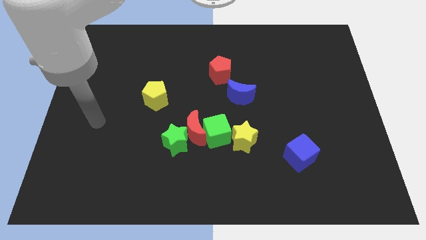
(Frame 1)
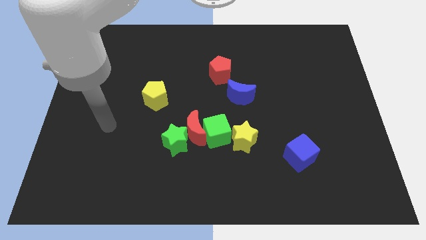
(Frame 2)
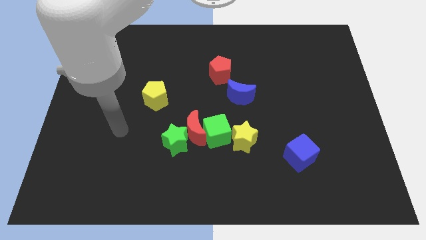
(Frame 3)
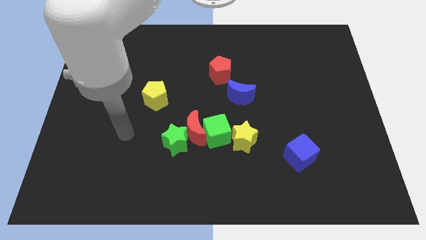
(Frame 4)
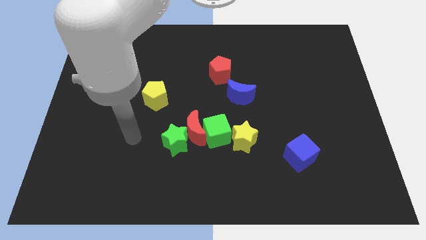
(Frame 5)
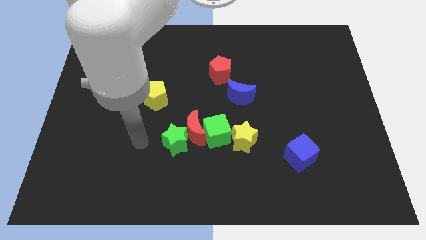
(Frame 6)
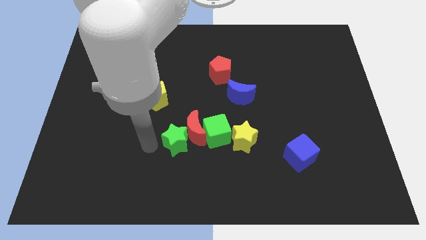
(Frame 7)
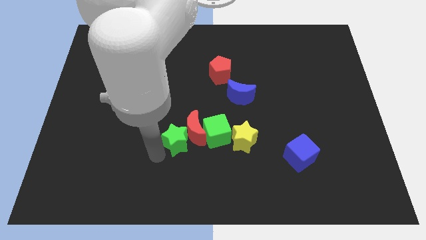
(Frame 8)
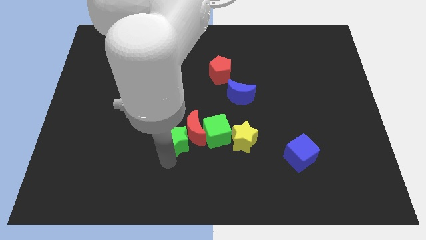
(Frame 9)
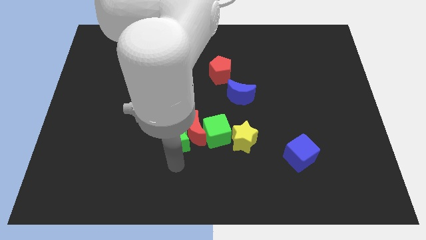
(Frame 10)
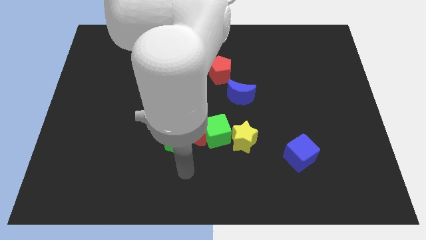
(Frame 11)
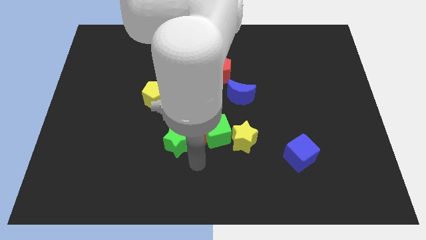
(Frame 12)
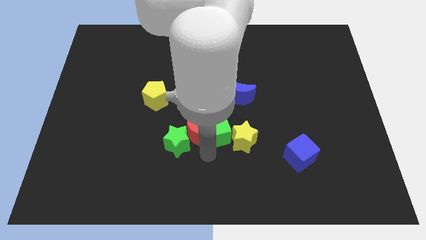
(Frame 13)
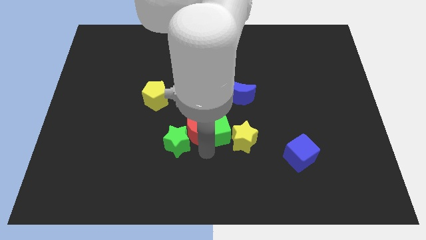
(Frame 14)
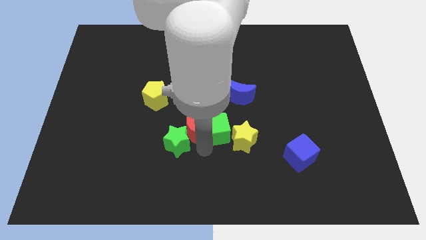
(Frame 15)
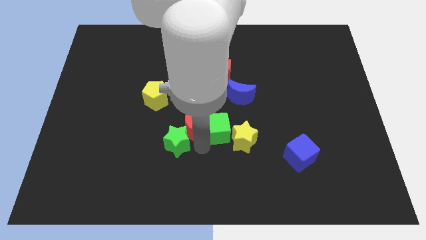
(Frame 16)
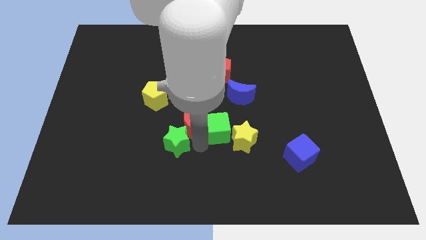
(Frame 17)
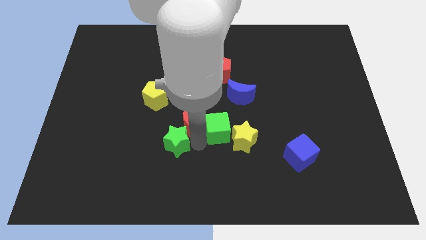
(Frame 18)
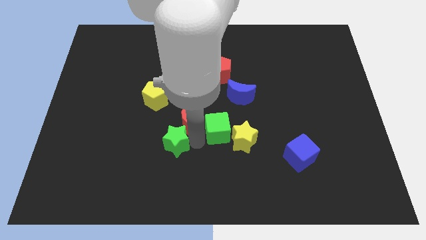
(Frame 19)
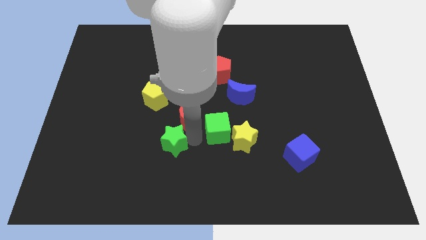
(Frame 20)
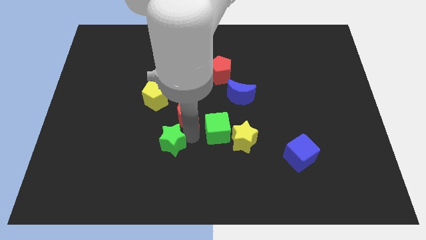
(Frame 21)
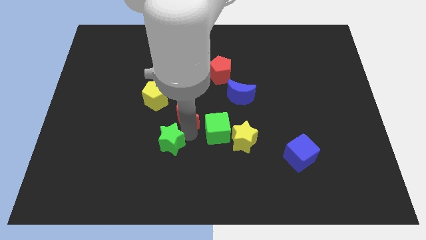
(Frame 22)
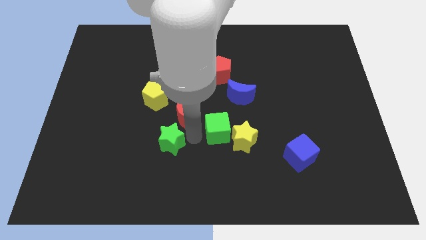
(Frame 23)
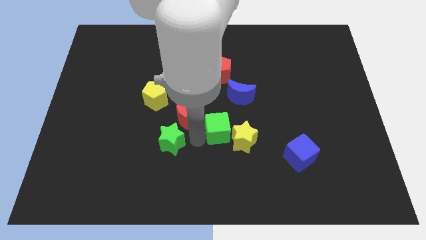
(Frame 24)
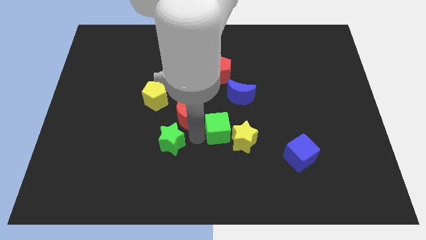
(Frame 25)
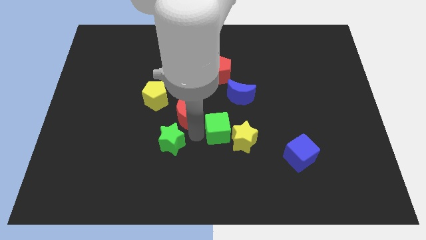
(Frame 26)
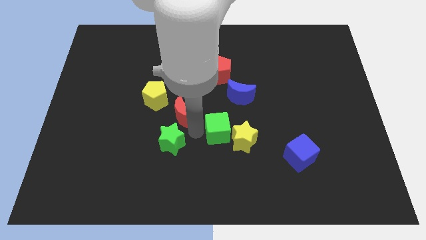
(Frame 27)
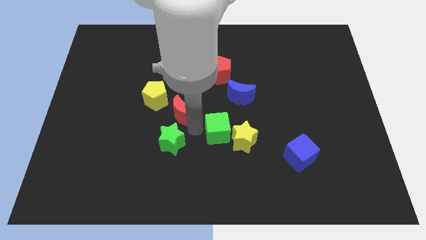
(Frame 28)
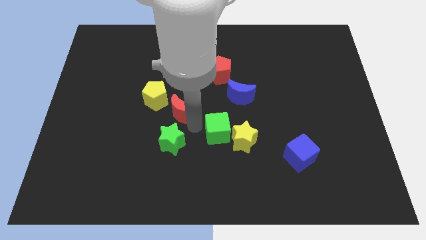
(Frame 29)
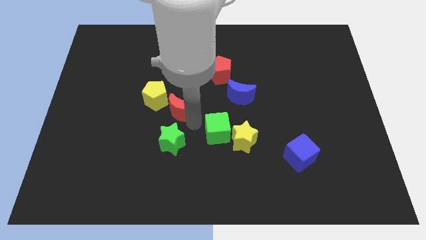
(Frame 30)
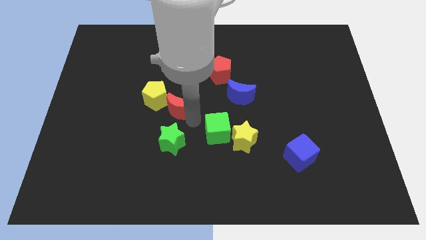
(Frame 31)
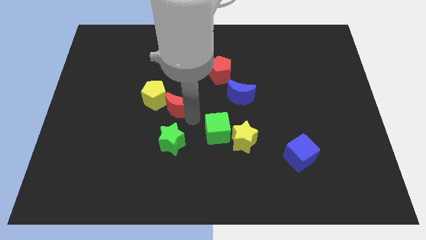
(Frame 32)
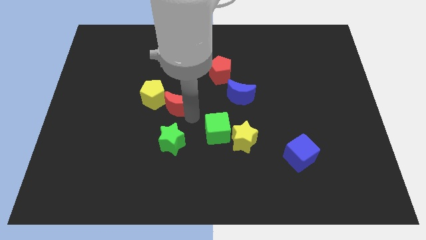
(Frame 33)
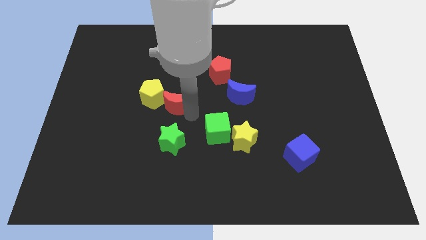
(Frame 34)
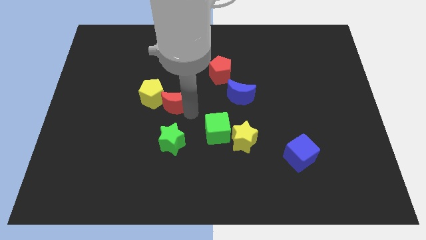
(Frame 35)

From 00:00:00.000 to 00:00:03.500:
move the red moon away from the green star and green cube

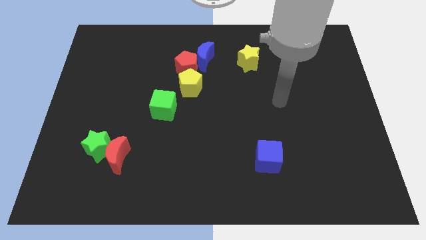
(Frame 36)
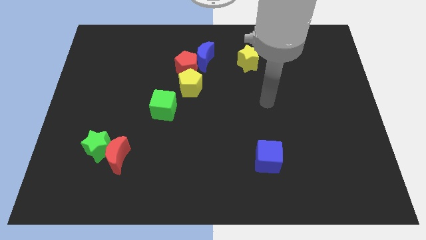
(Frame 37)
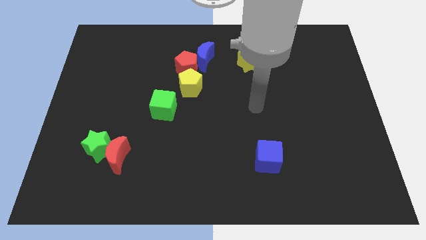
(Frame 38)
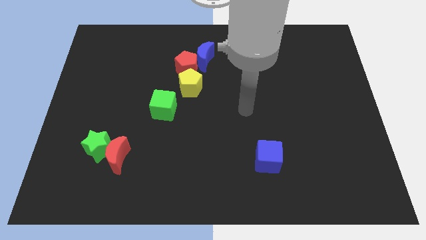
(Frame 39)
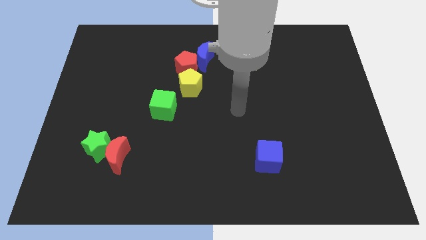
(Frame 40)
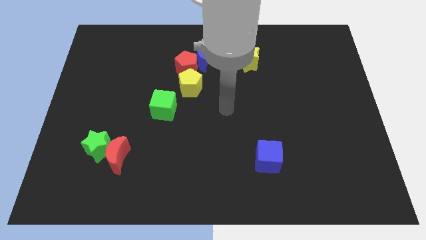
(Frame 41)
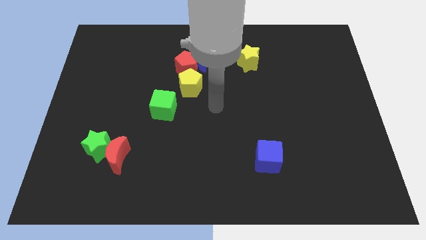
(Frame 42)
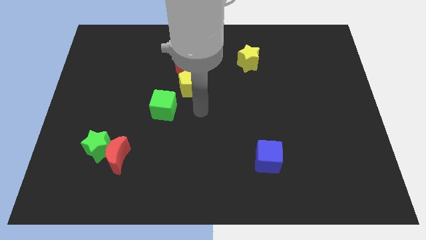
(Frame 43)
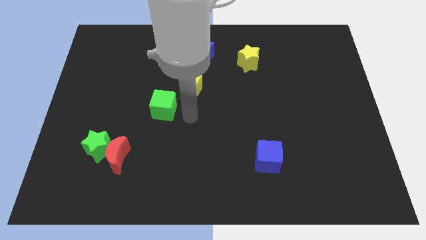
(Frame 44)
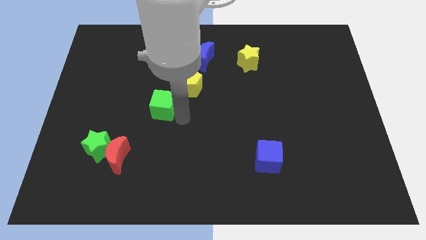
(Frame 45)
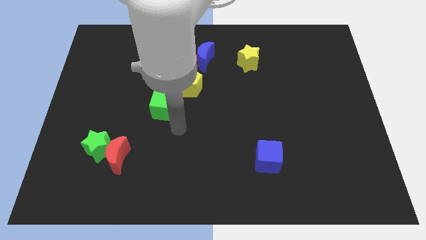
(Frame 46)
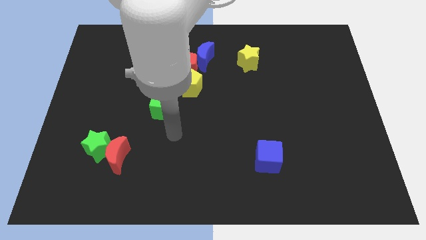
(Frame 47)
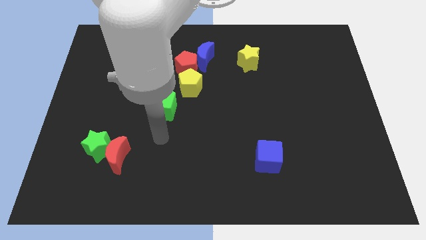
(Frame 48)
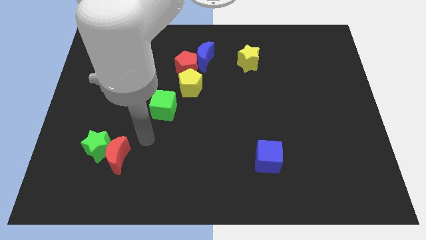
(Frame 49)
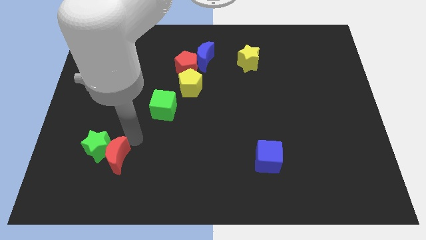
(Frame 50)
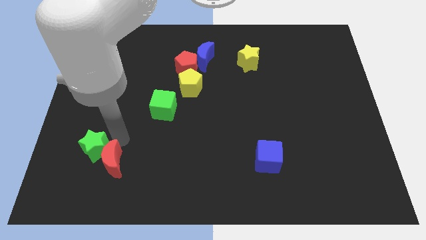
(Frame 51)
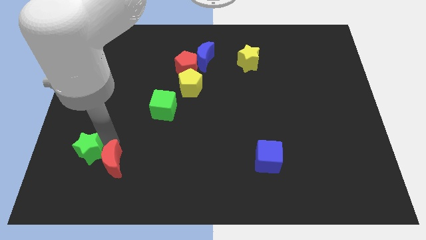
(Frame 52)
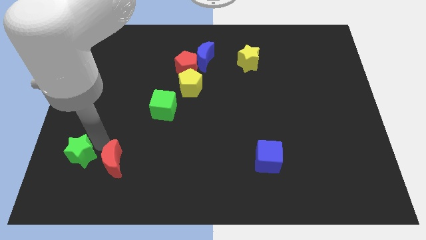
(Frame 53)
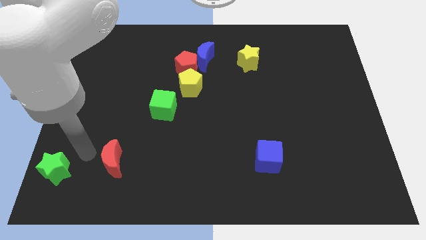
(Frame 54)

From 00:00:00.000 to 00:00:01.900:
move the red moon away from the green star

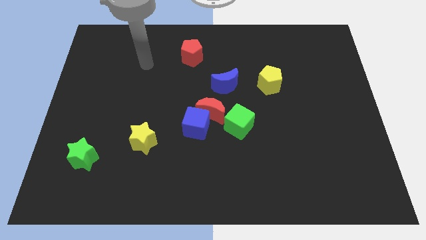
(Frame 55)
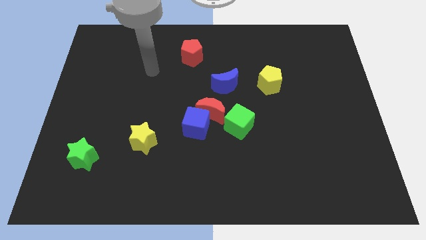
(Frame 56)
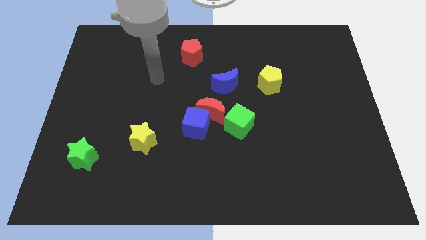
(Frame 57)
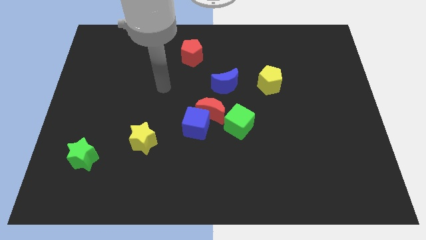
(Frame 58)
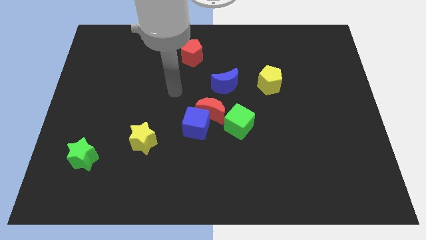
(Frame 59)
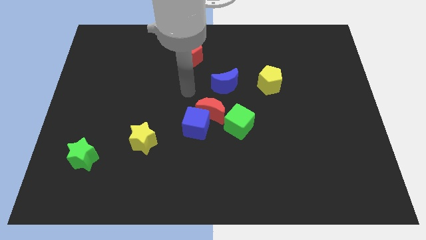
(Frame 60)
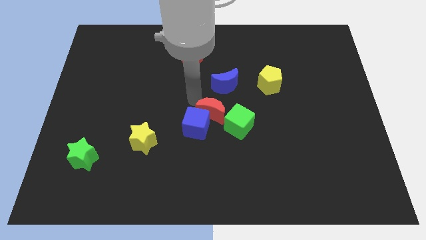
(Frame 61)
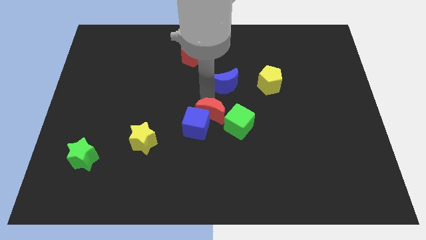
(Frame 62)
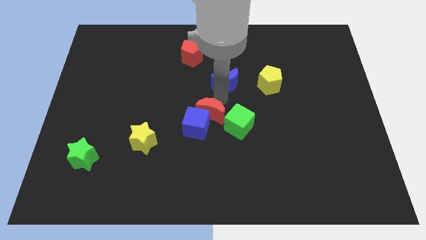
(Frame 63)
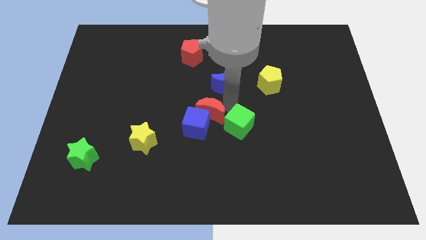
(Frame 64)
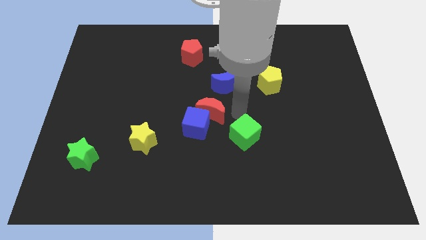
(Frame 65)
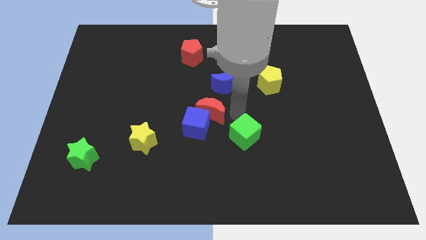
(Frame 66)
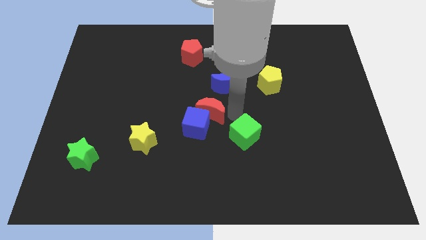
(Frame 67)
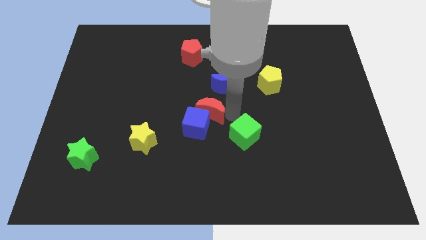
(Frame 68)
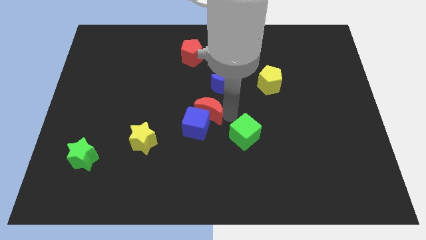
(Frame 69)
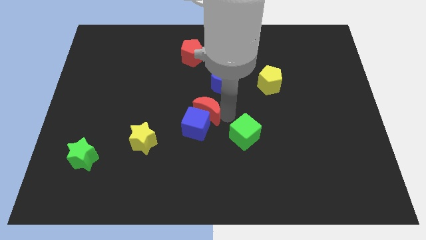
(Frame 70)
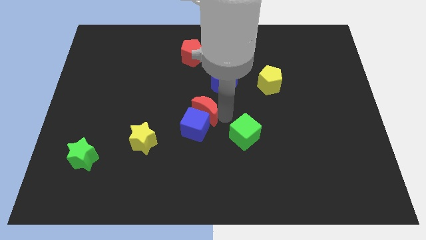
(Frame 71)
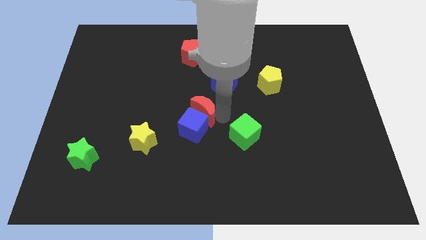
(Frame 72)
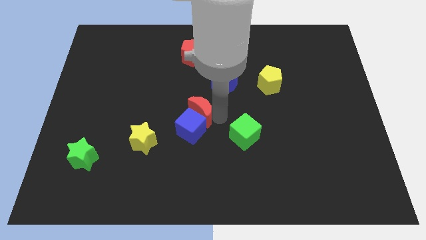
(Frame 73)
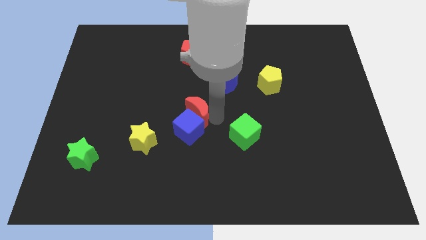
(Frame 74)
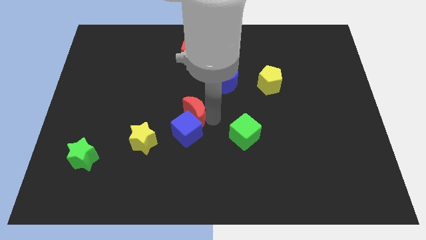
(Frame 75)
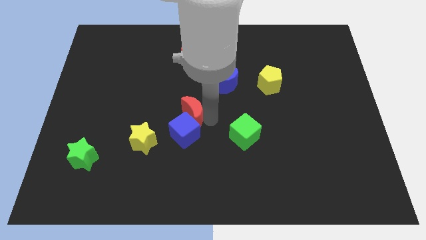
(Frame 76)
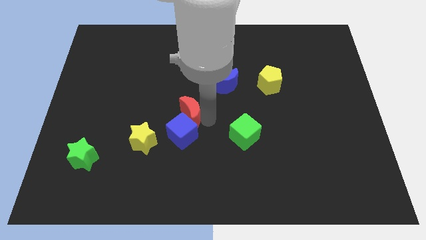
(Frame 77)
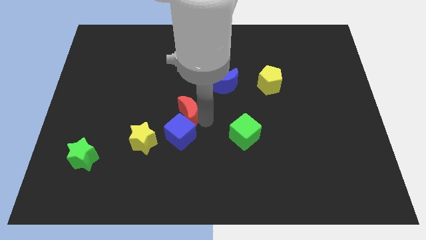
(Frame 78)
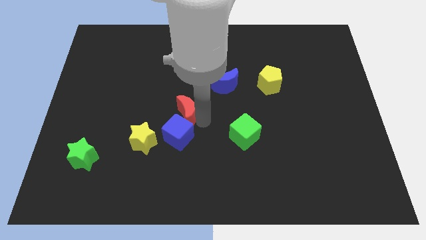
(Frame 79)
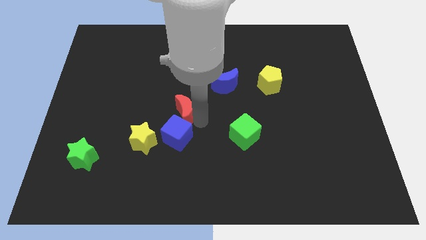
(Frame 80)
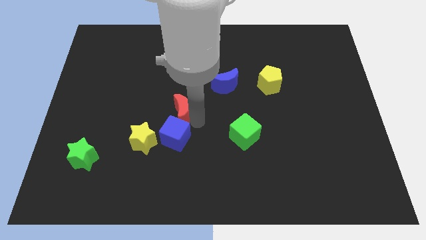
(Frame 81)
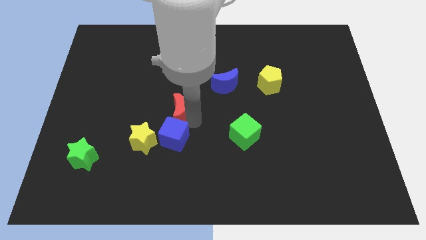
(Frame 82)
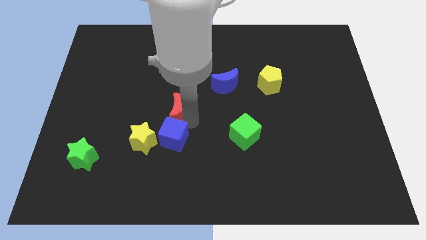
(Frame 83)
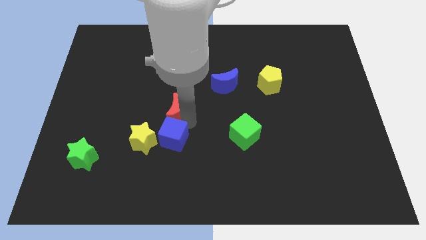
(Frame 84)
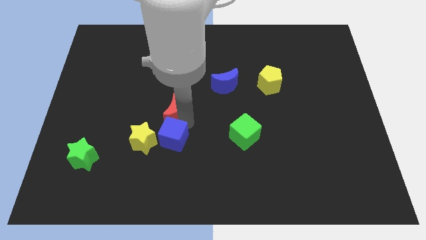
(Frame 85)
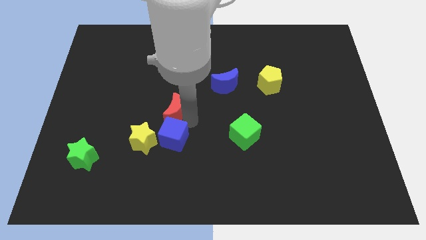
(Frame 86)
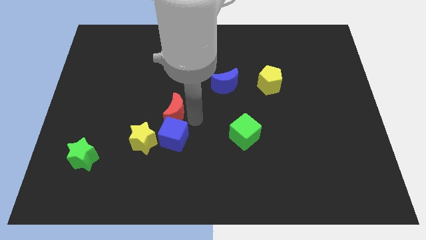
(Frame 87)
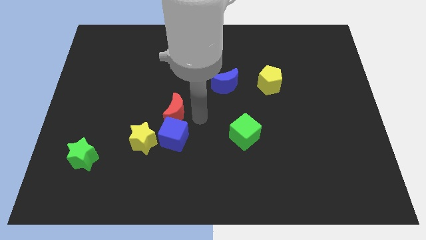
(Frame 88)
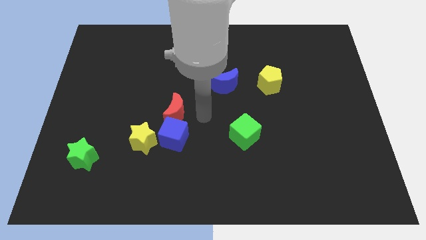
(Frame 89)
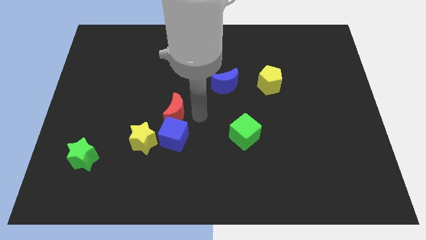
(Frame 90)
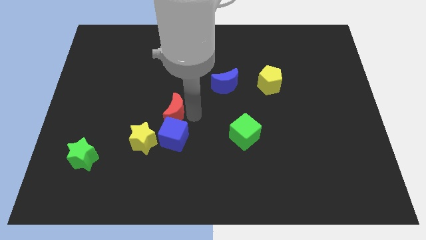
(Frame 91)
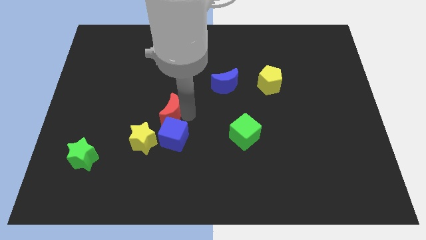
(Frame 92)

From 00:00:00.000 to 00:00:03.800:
move the red moon away from the group of blocks

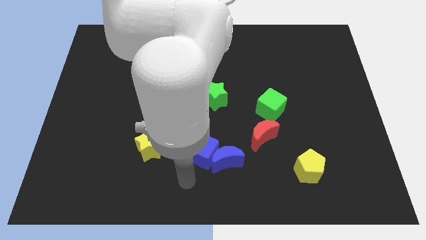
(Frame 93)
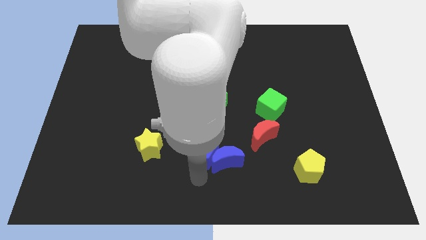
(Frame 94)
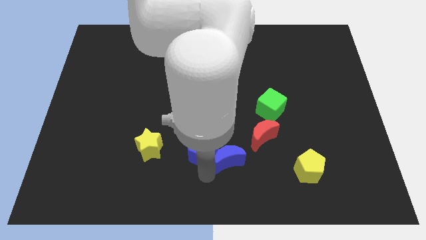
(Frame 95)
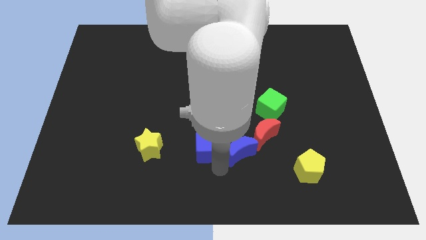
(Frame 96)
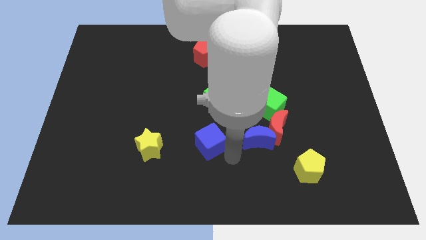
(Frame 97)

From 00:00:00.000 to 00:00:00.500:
separate the blue cube from the blue moon
